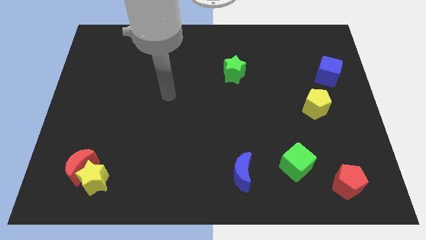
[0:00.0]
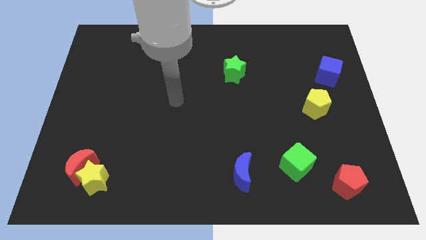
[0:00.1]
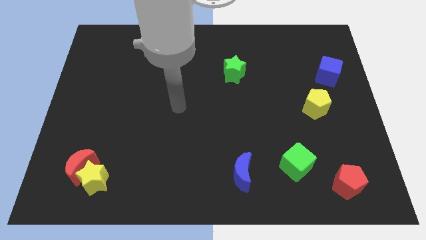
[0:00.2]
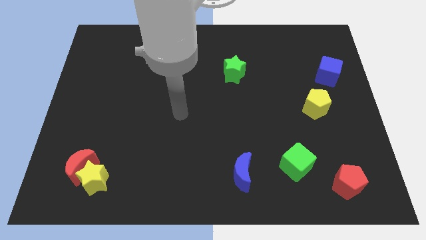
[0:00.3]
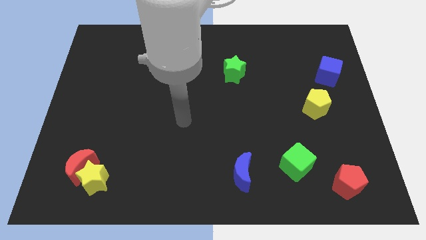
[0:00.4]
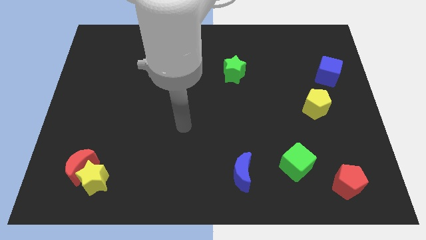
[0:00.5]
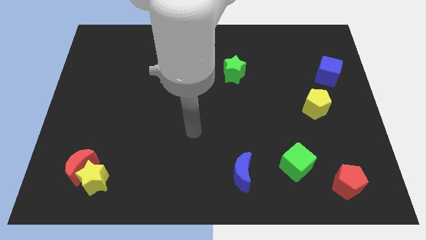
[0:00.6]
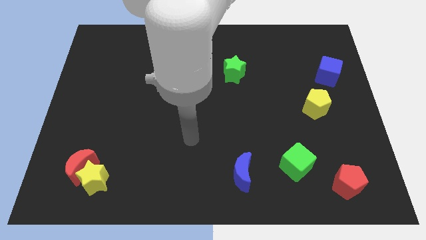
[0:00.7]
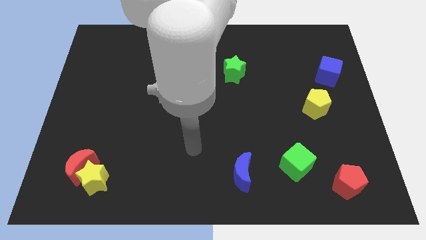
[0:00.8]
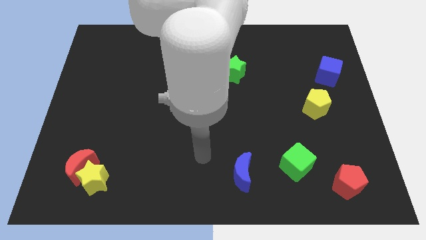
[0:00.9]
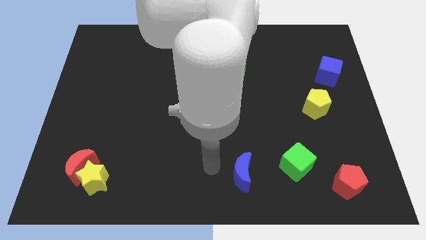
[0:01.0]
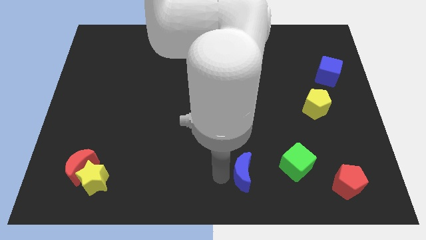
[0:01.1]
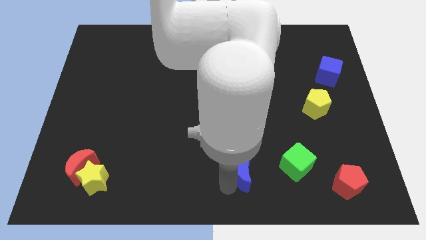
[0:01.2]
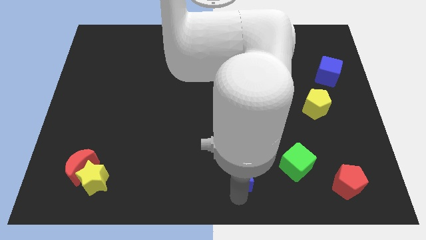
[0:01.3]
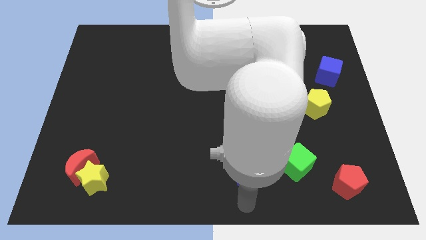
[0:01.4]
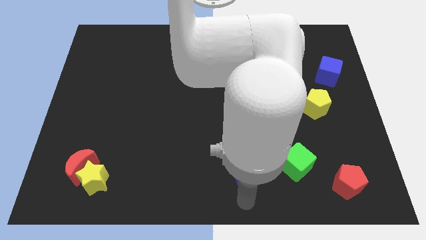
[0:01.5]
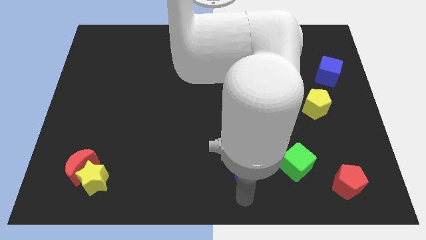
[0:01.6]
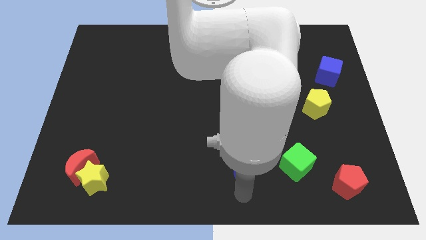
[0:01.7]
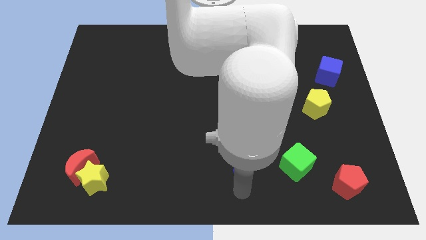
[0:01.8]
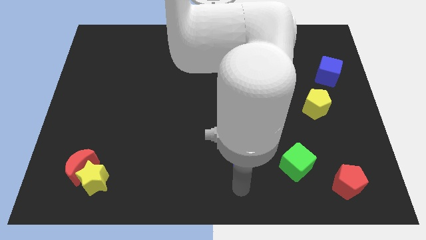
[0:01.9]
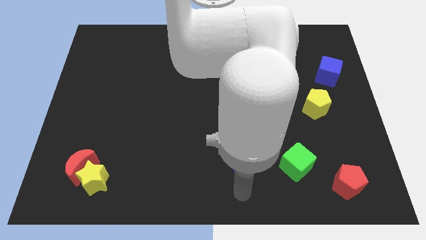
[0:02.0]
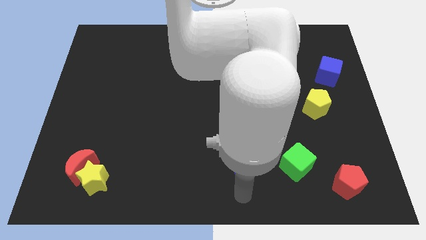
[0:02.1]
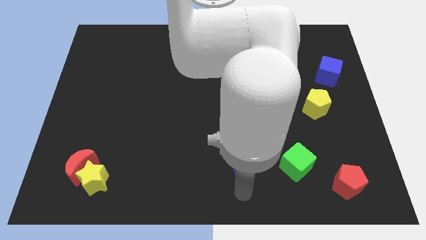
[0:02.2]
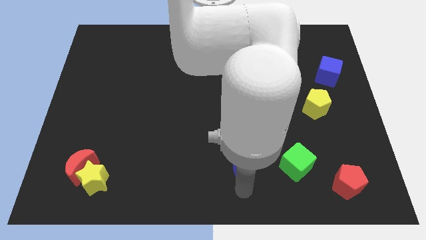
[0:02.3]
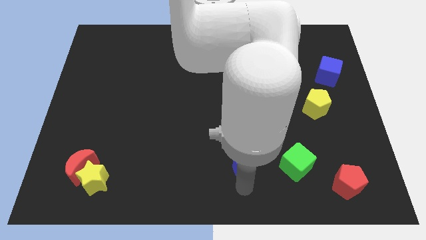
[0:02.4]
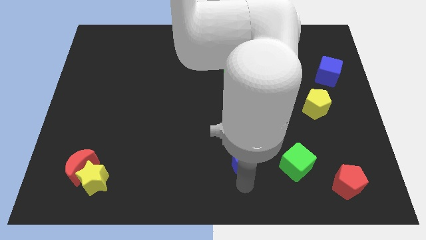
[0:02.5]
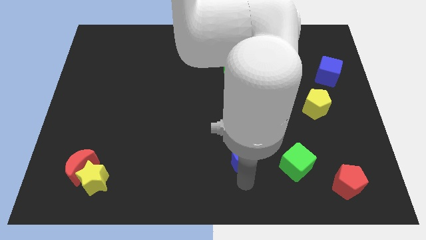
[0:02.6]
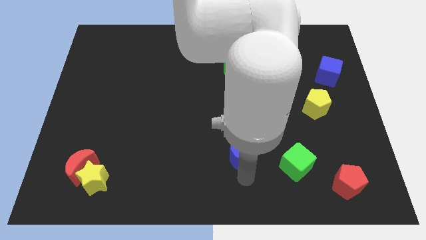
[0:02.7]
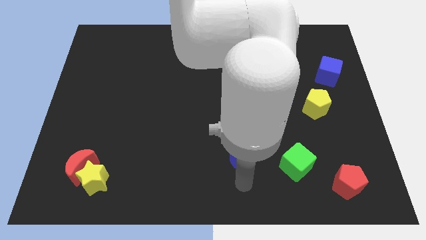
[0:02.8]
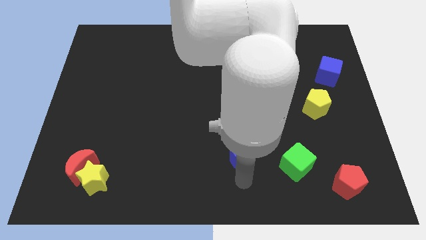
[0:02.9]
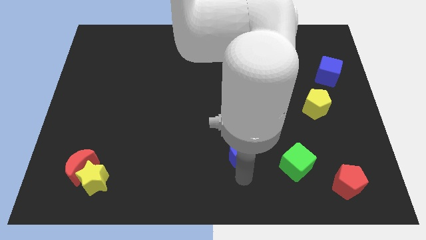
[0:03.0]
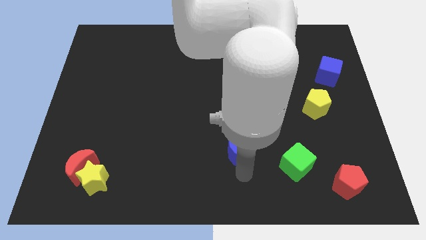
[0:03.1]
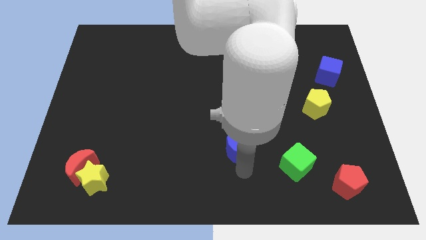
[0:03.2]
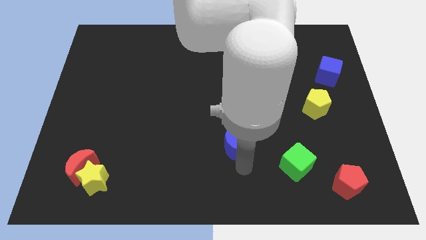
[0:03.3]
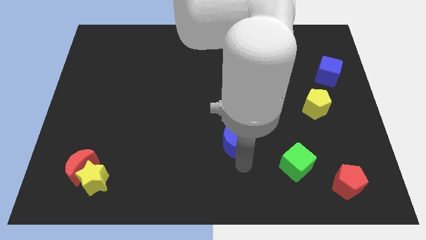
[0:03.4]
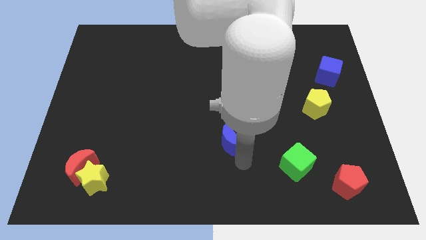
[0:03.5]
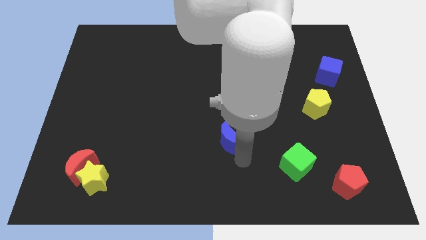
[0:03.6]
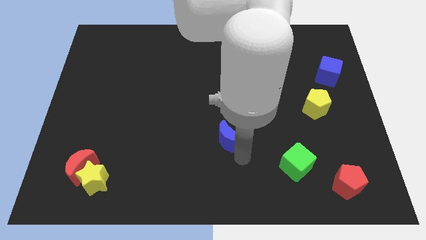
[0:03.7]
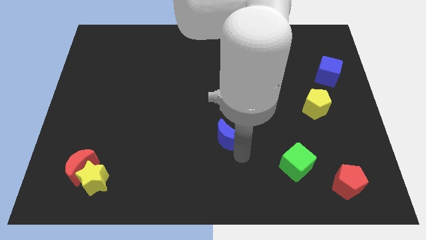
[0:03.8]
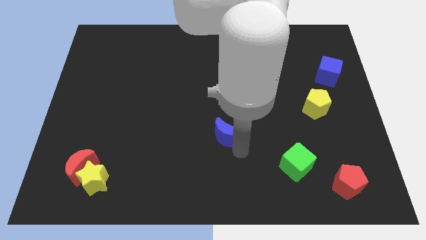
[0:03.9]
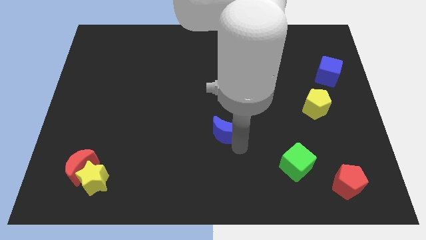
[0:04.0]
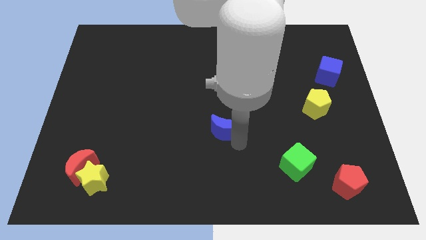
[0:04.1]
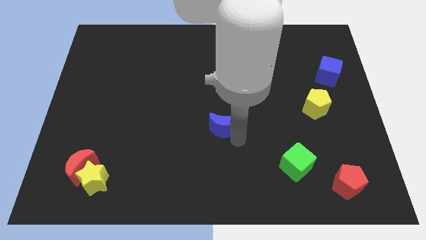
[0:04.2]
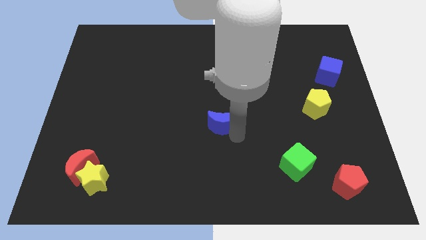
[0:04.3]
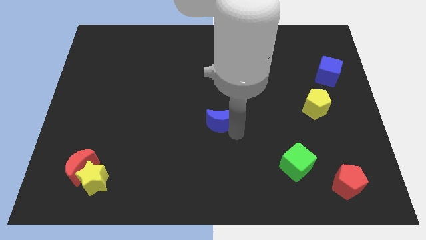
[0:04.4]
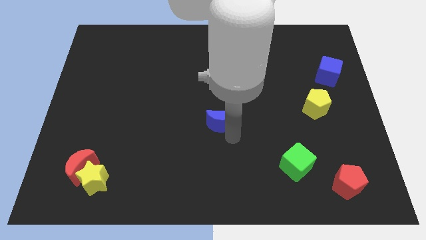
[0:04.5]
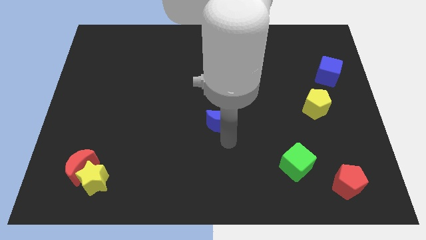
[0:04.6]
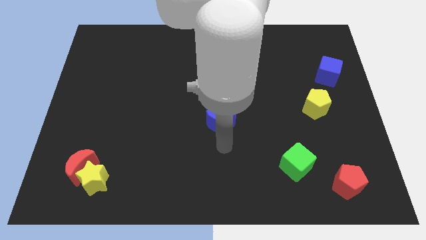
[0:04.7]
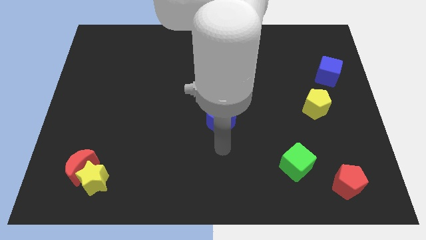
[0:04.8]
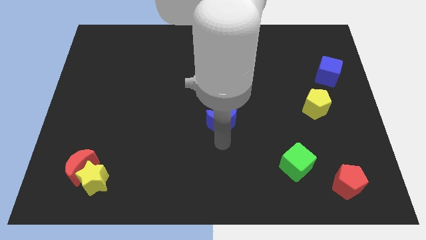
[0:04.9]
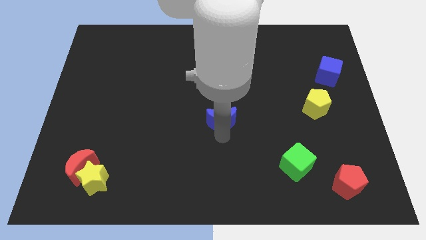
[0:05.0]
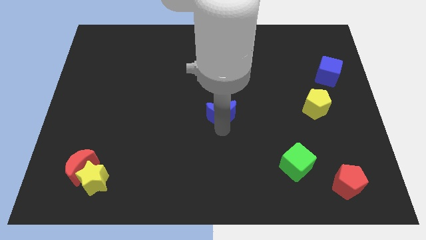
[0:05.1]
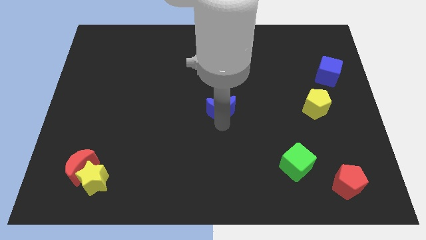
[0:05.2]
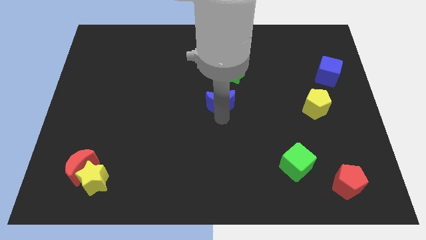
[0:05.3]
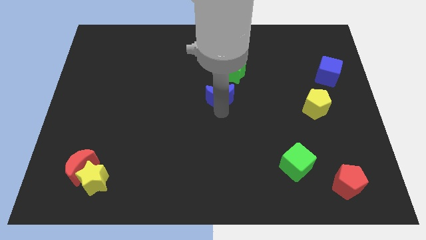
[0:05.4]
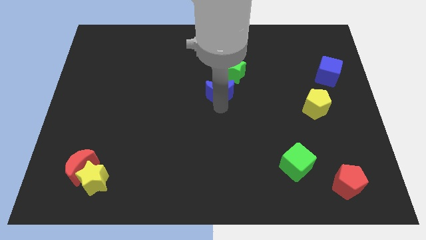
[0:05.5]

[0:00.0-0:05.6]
slide the blue moon up

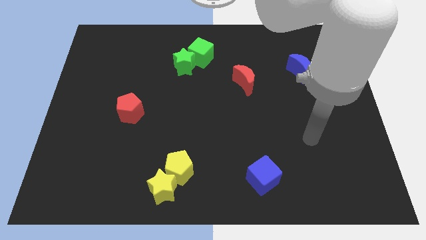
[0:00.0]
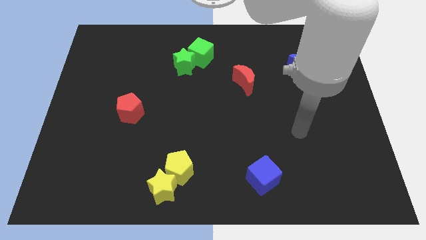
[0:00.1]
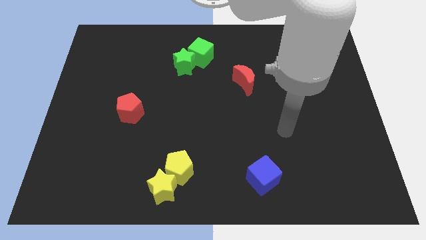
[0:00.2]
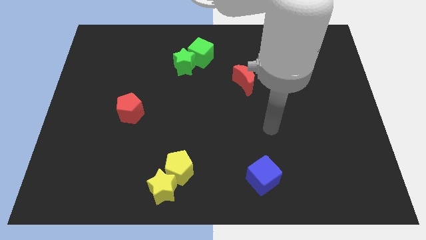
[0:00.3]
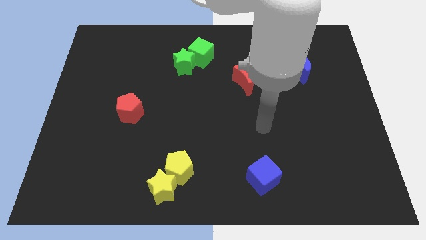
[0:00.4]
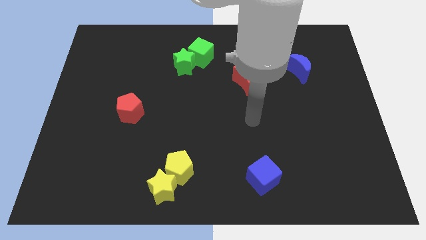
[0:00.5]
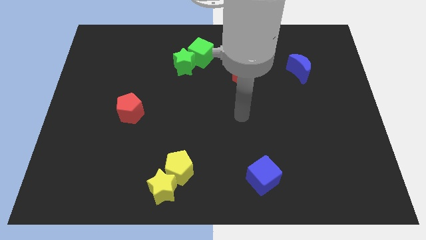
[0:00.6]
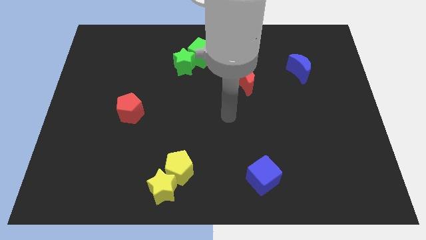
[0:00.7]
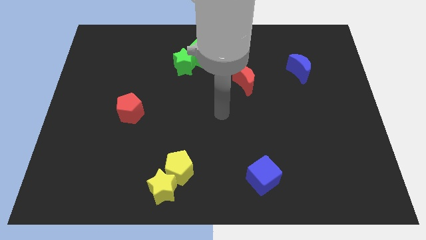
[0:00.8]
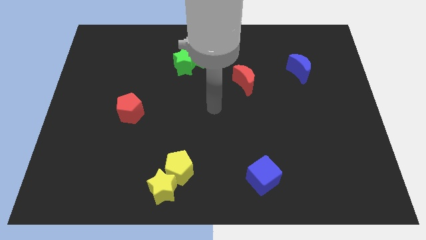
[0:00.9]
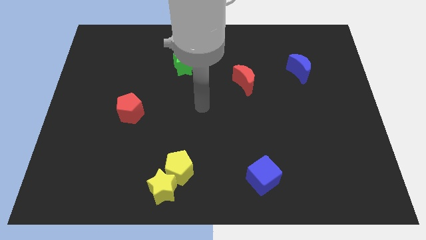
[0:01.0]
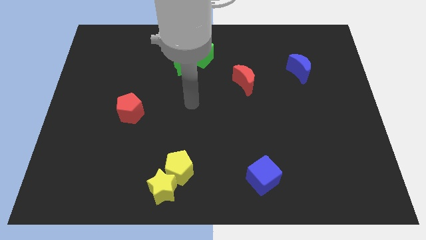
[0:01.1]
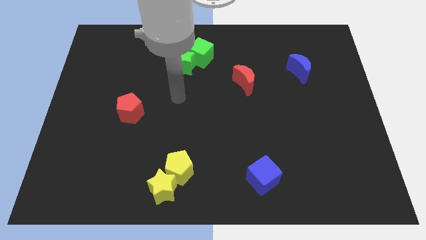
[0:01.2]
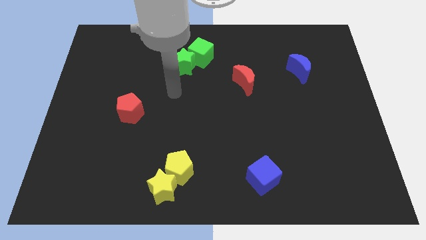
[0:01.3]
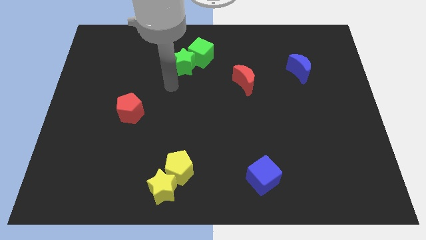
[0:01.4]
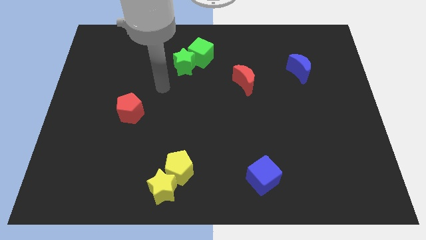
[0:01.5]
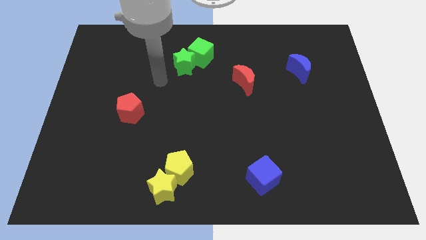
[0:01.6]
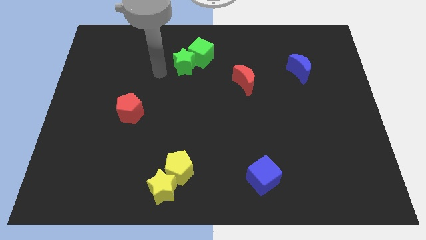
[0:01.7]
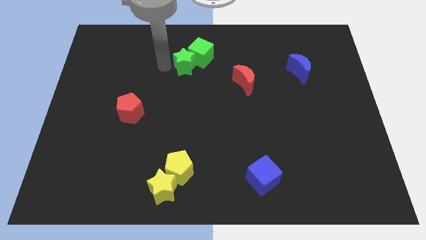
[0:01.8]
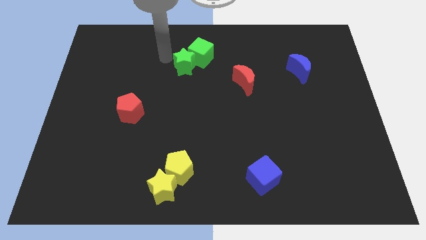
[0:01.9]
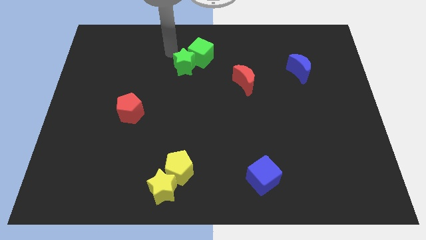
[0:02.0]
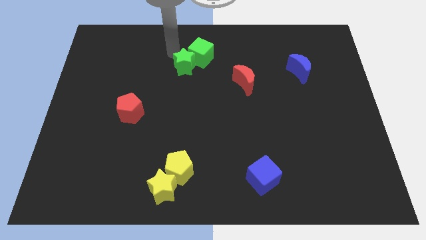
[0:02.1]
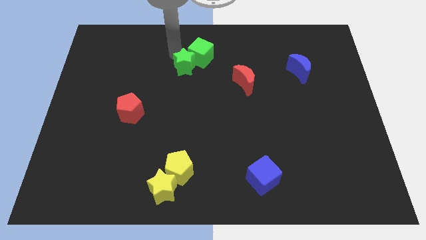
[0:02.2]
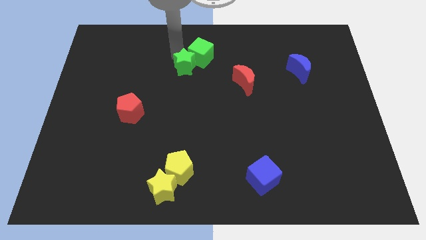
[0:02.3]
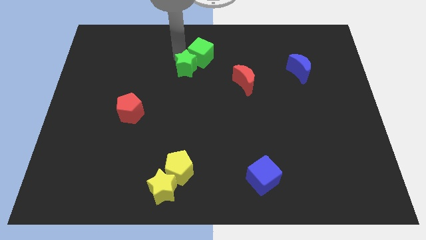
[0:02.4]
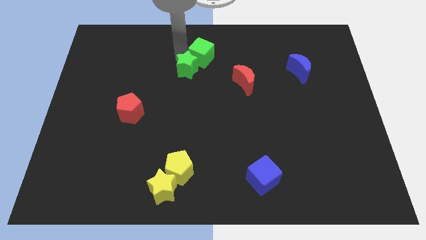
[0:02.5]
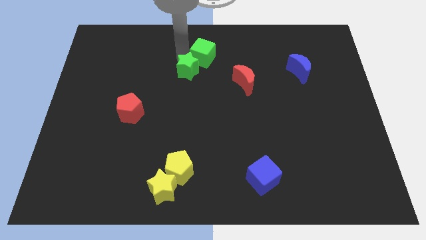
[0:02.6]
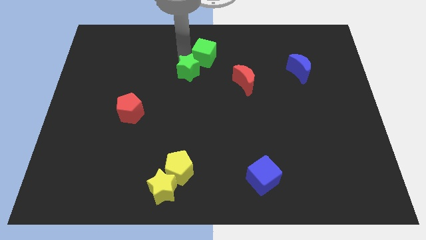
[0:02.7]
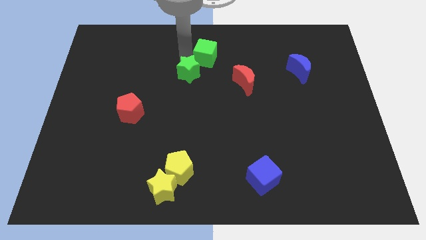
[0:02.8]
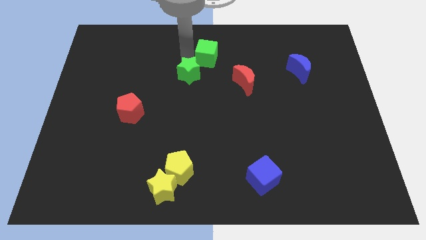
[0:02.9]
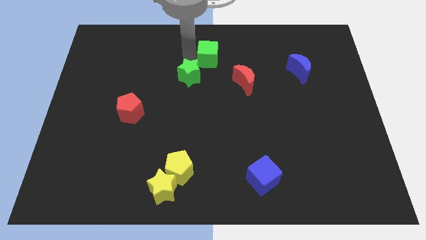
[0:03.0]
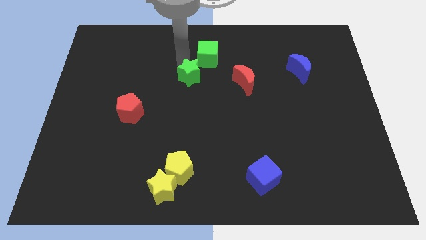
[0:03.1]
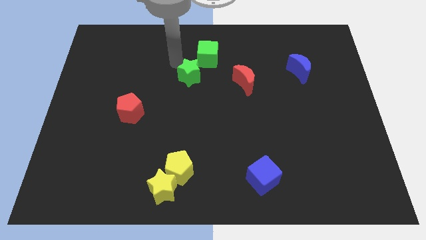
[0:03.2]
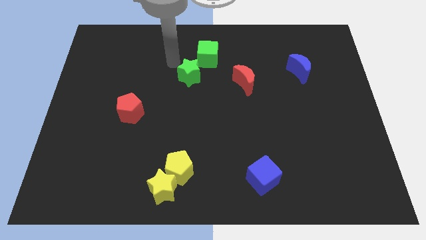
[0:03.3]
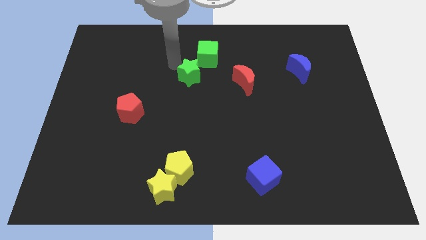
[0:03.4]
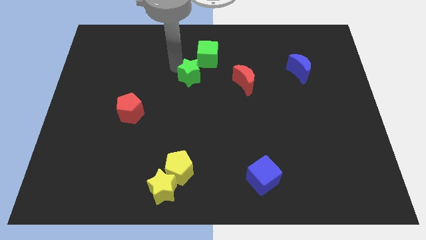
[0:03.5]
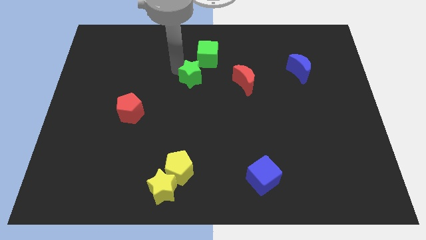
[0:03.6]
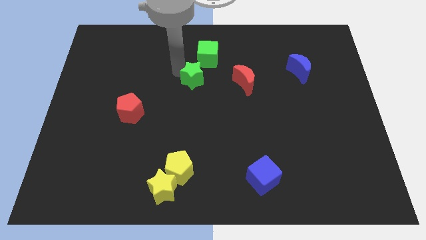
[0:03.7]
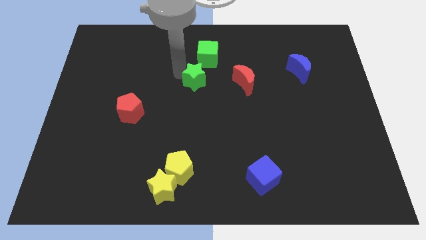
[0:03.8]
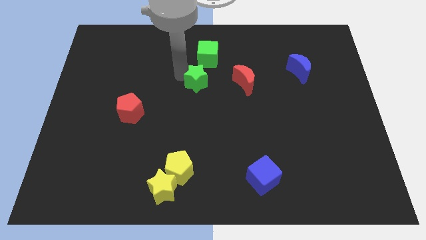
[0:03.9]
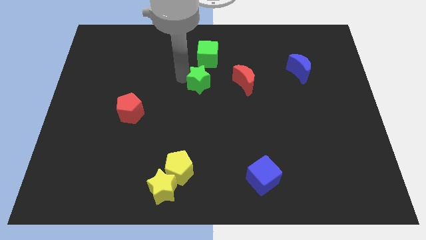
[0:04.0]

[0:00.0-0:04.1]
slightly move the green star down and to the right
